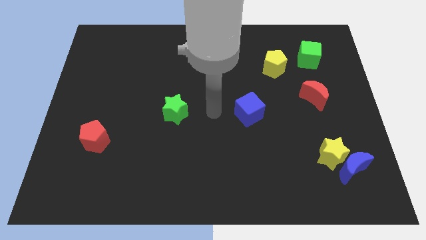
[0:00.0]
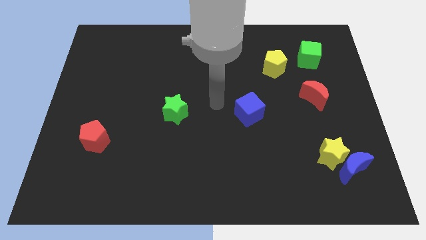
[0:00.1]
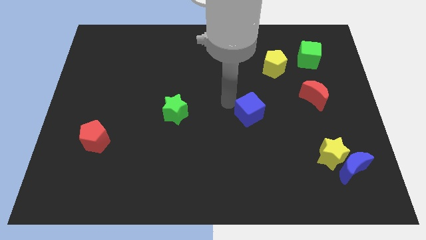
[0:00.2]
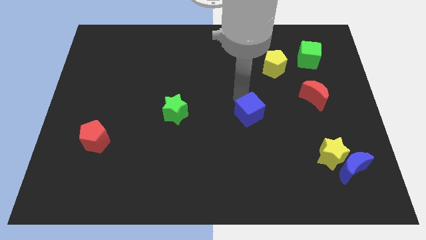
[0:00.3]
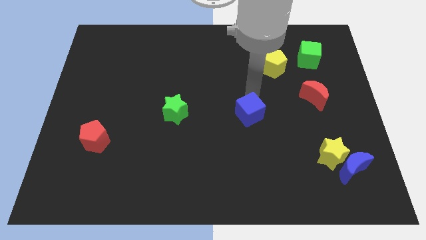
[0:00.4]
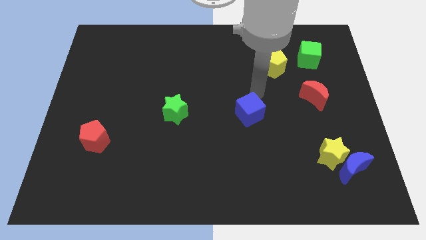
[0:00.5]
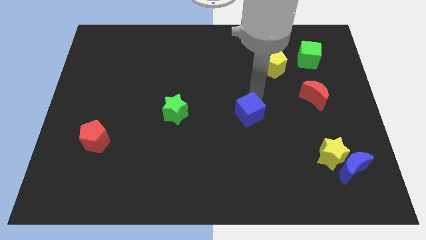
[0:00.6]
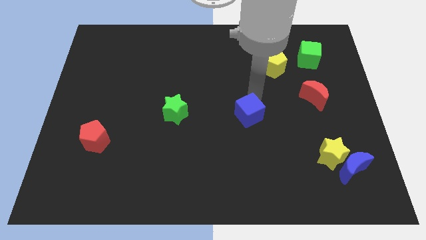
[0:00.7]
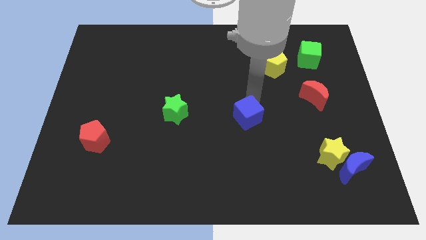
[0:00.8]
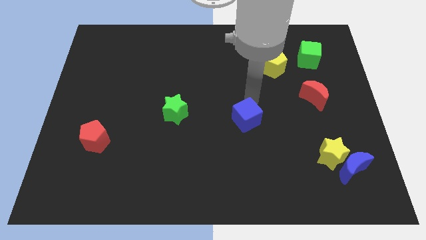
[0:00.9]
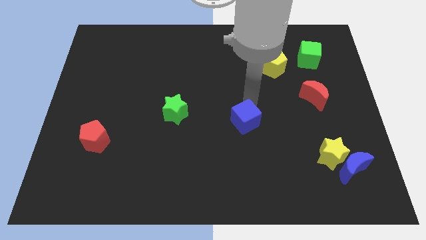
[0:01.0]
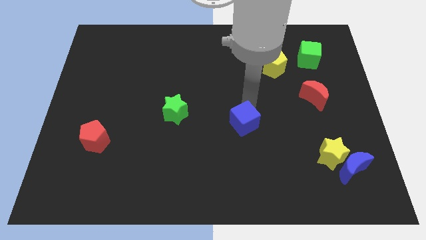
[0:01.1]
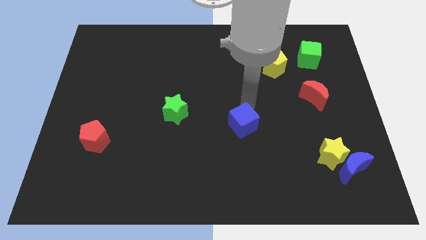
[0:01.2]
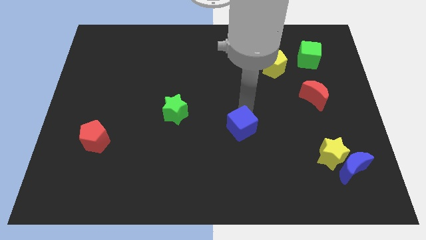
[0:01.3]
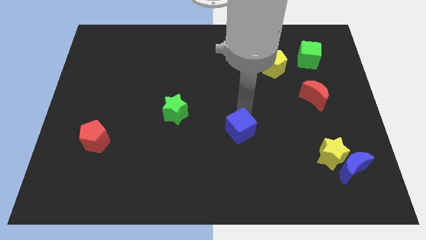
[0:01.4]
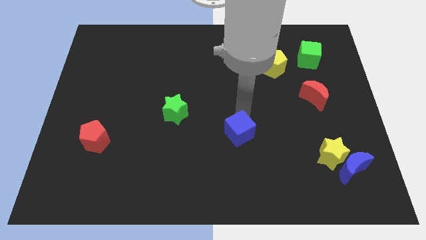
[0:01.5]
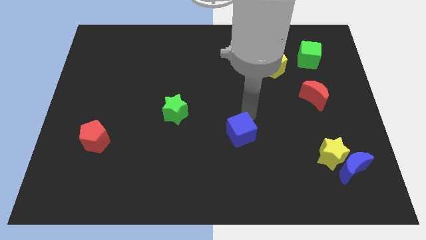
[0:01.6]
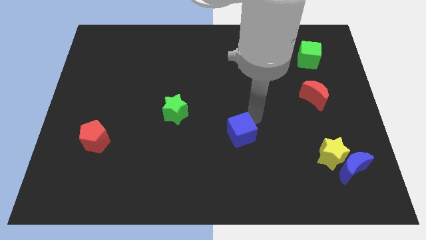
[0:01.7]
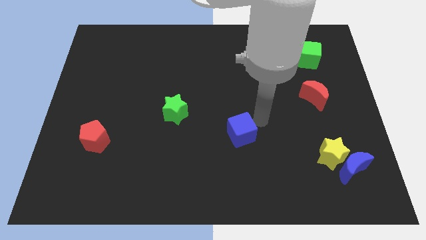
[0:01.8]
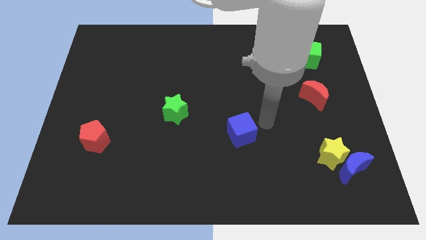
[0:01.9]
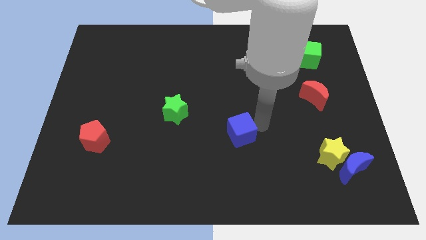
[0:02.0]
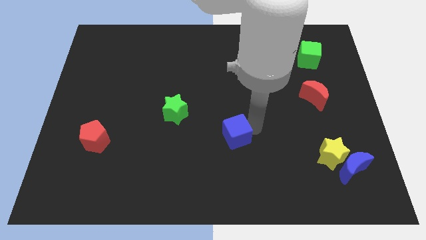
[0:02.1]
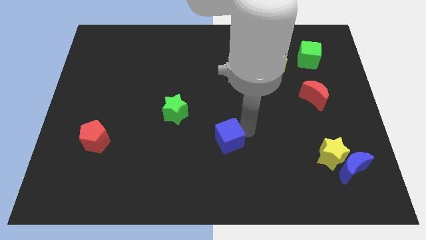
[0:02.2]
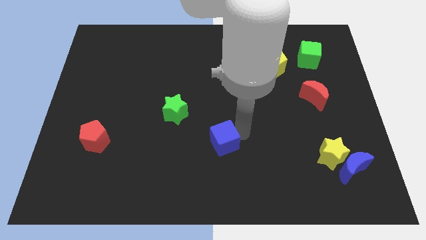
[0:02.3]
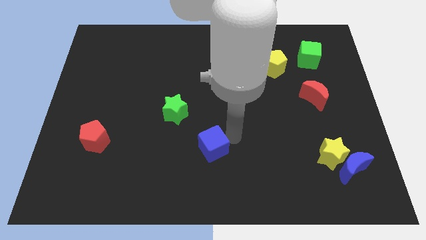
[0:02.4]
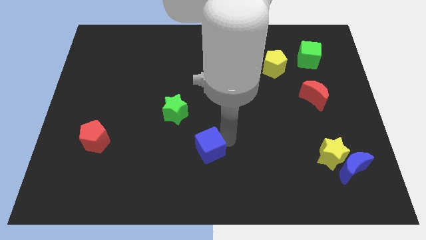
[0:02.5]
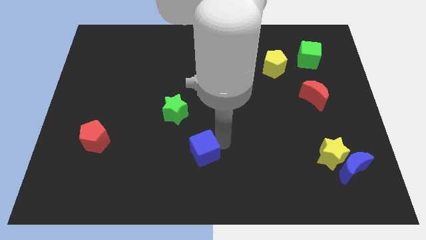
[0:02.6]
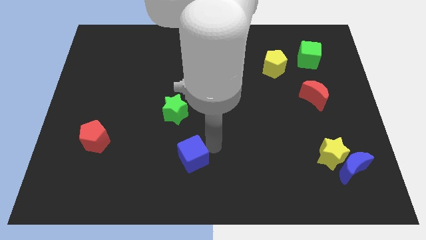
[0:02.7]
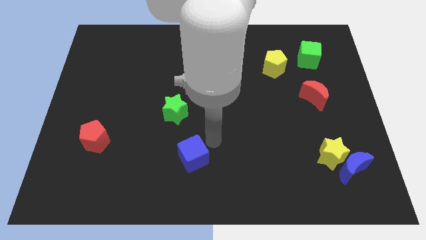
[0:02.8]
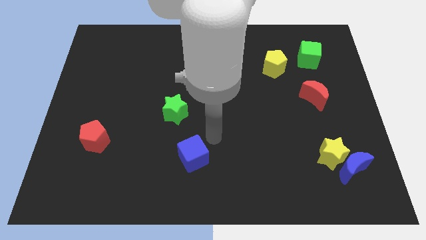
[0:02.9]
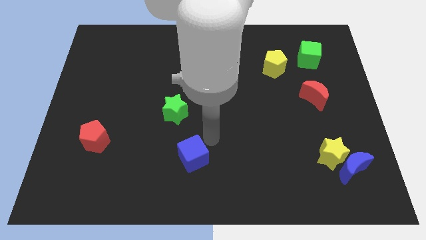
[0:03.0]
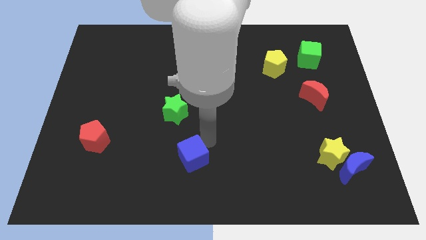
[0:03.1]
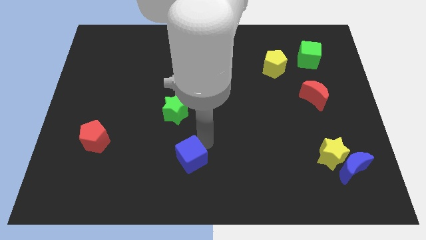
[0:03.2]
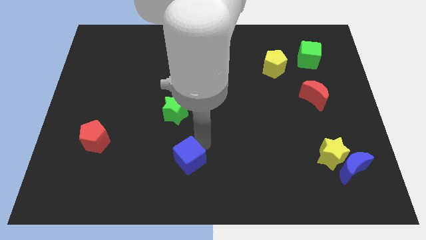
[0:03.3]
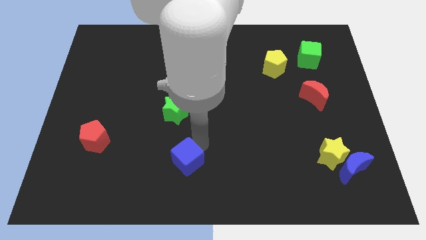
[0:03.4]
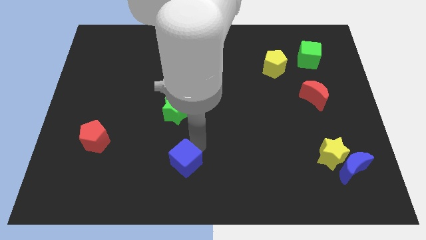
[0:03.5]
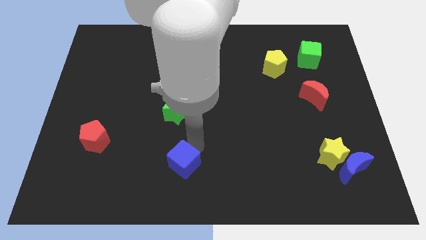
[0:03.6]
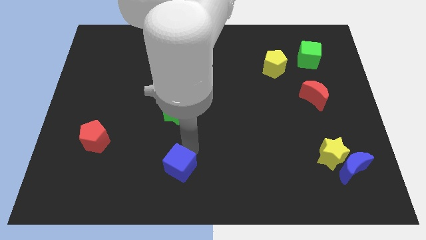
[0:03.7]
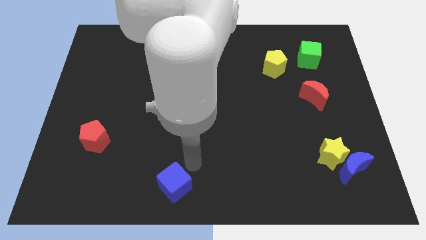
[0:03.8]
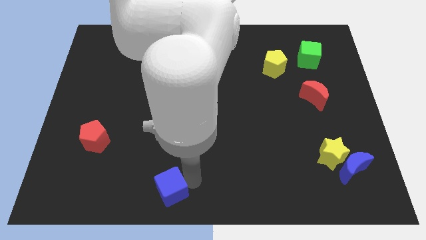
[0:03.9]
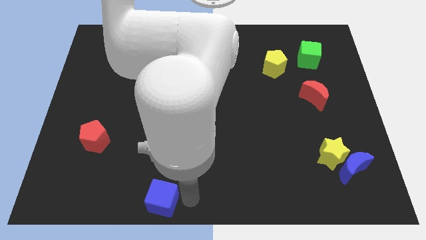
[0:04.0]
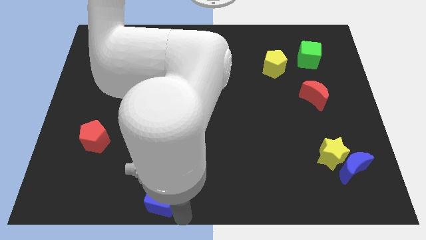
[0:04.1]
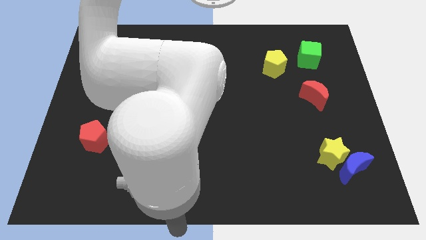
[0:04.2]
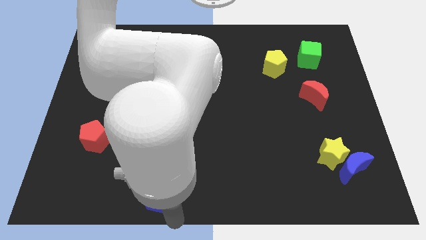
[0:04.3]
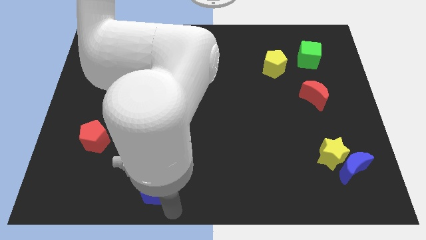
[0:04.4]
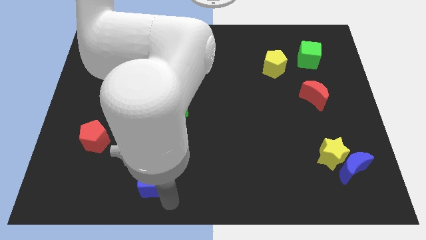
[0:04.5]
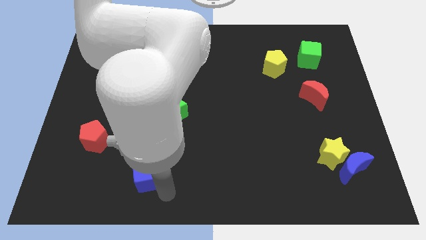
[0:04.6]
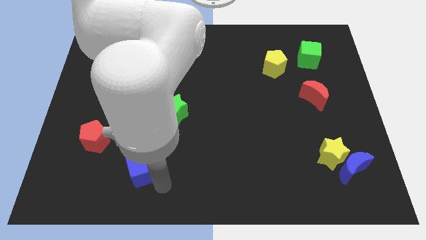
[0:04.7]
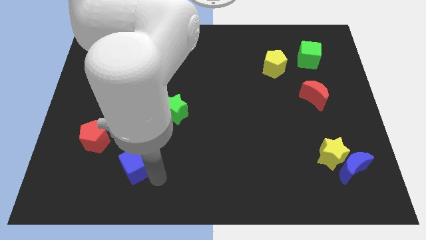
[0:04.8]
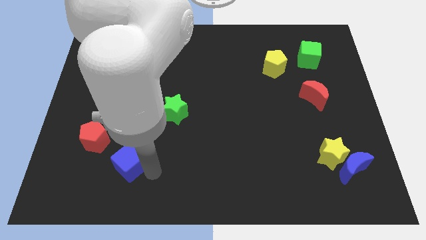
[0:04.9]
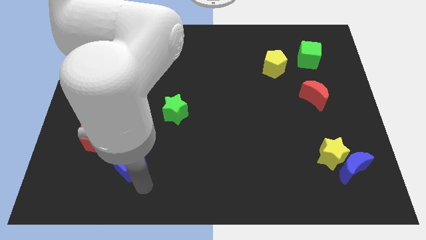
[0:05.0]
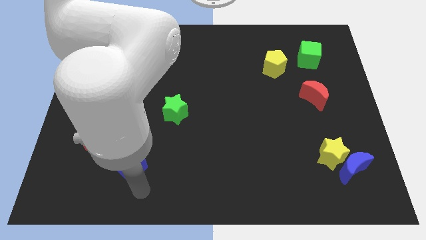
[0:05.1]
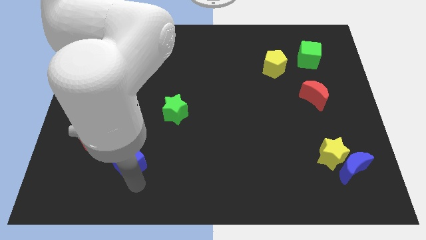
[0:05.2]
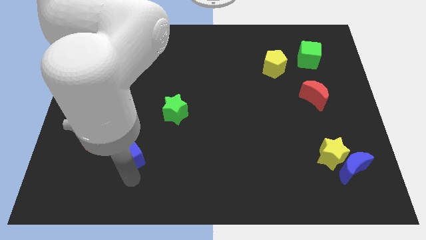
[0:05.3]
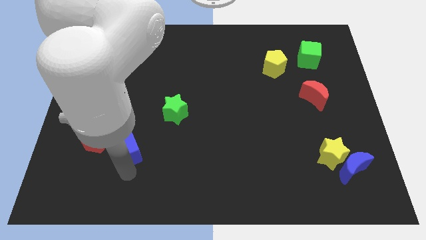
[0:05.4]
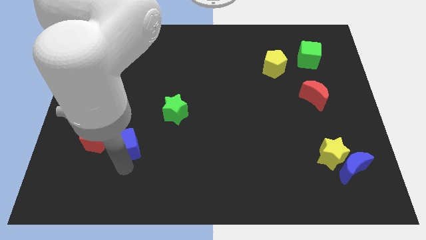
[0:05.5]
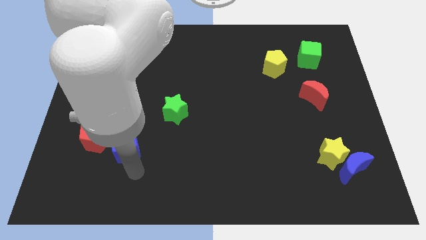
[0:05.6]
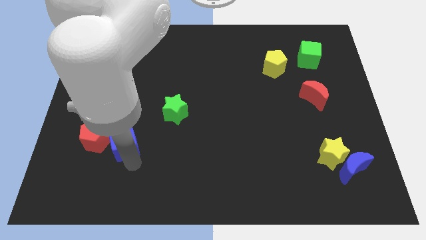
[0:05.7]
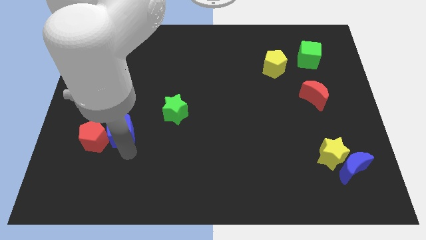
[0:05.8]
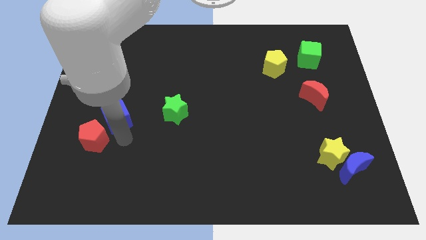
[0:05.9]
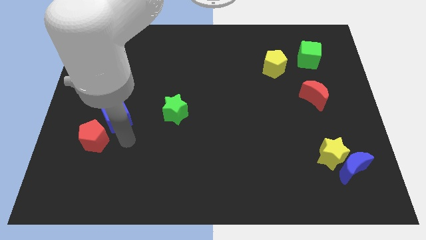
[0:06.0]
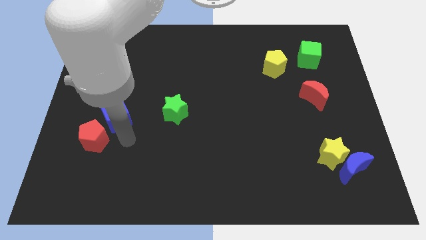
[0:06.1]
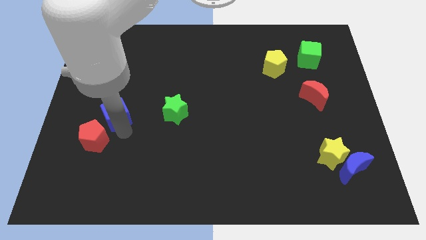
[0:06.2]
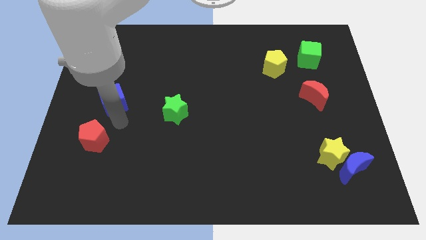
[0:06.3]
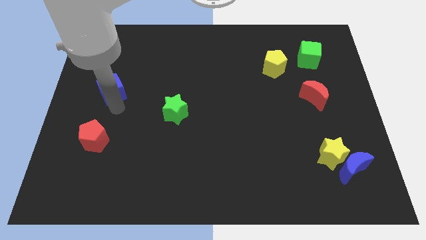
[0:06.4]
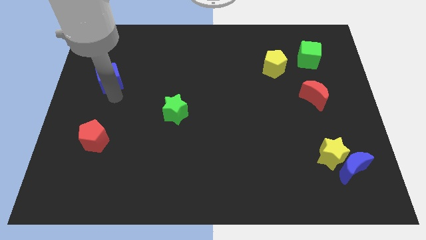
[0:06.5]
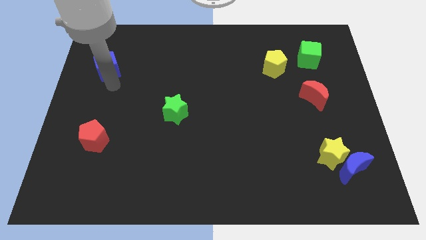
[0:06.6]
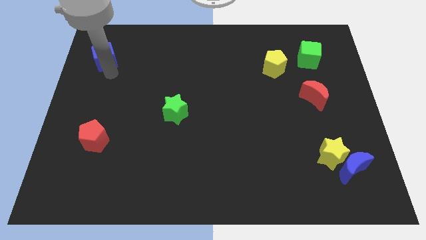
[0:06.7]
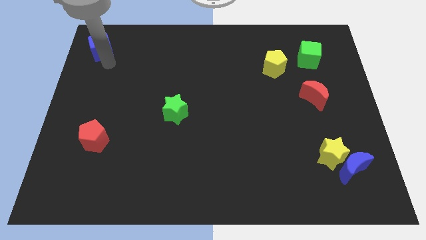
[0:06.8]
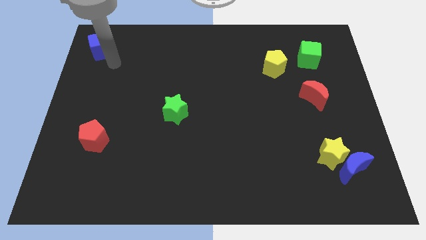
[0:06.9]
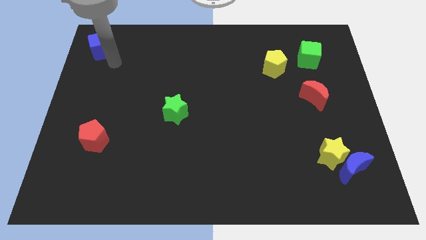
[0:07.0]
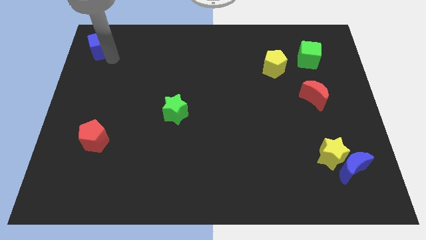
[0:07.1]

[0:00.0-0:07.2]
move the blue cube to the upper left corner
